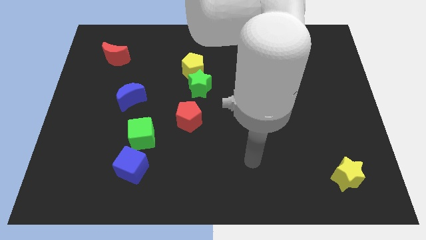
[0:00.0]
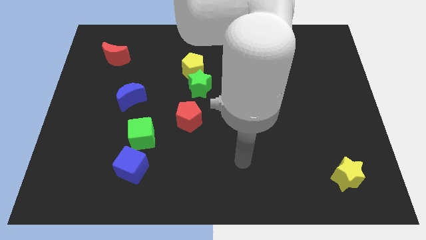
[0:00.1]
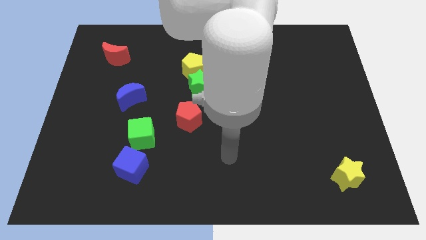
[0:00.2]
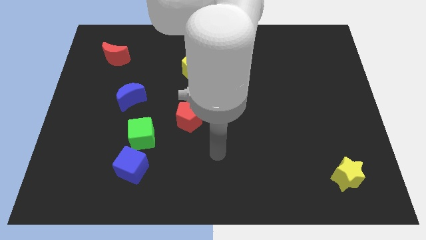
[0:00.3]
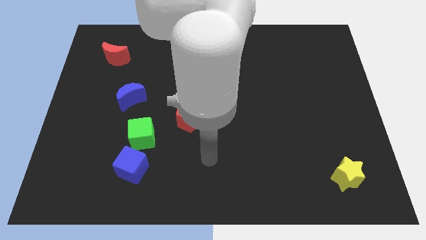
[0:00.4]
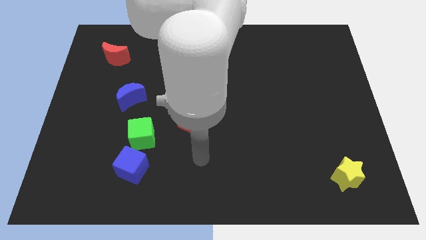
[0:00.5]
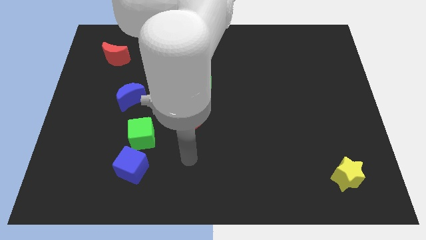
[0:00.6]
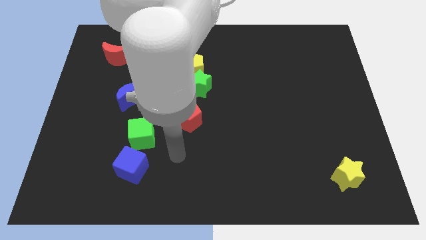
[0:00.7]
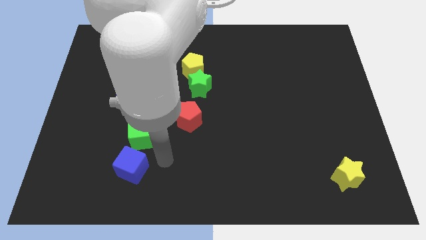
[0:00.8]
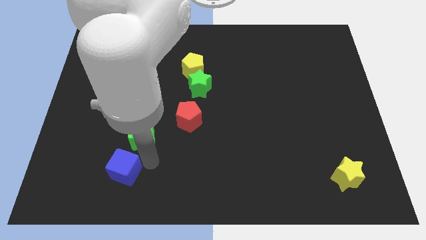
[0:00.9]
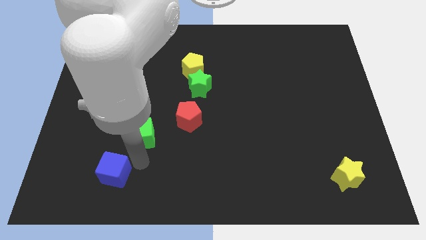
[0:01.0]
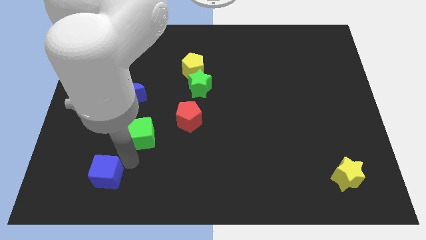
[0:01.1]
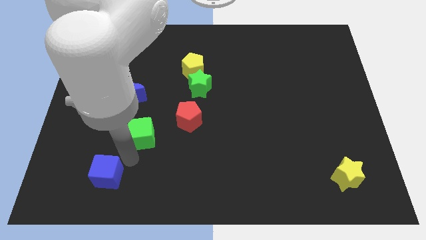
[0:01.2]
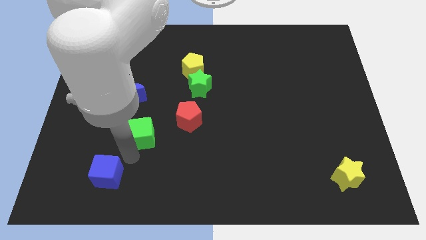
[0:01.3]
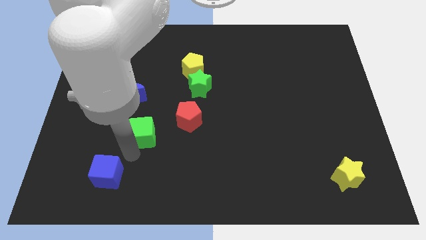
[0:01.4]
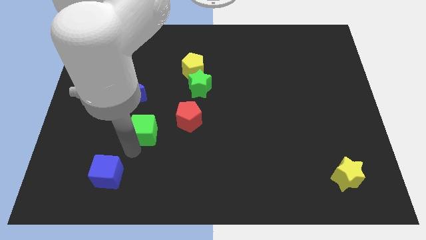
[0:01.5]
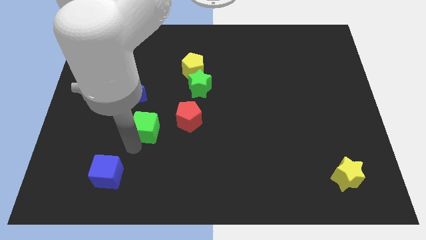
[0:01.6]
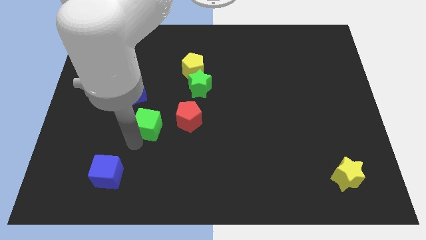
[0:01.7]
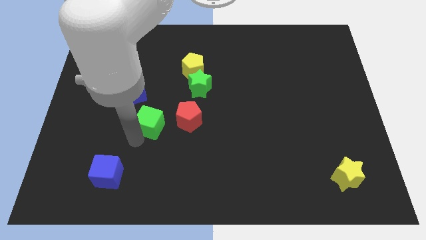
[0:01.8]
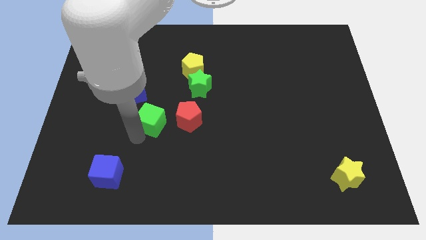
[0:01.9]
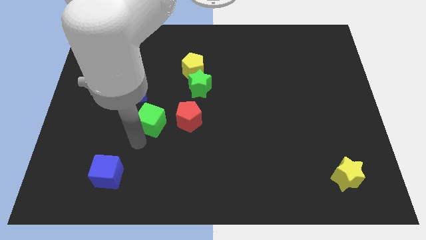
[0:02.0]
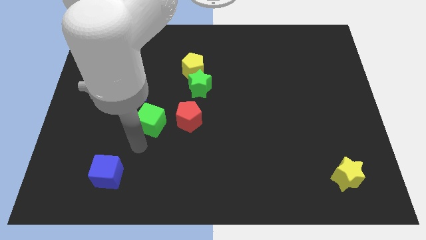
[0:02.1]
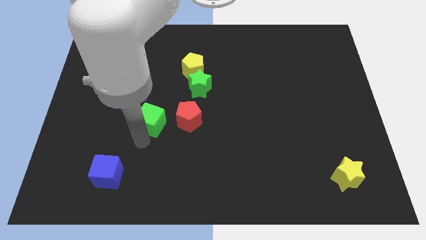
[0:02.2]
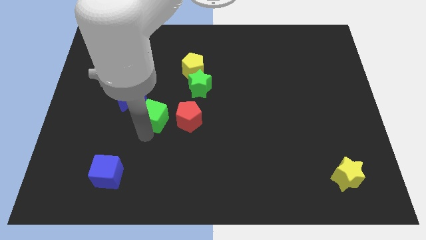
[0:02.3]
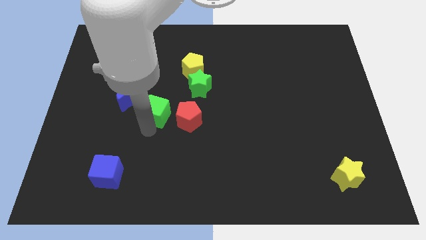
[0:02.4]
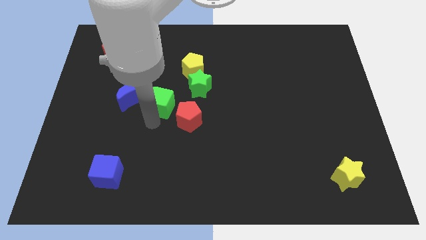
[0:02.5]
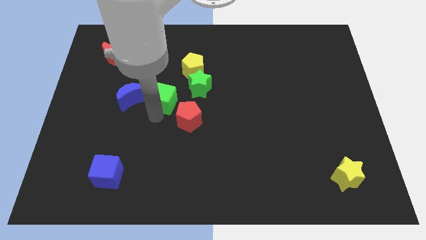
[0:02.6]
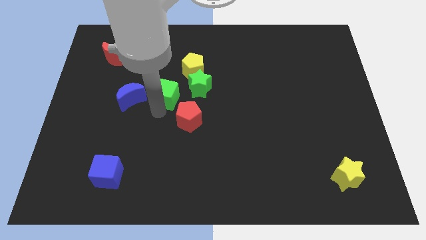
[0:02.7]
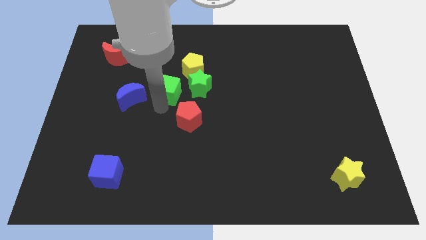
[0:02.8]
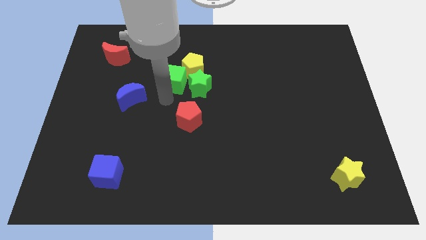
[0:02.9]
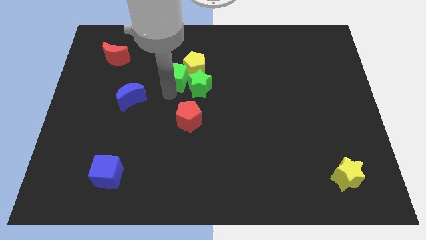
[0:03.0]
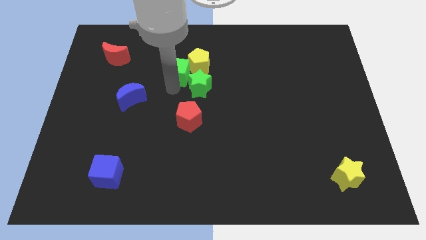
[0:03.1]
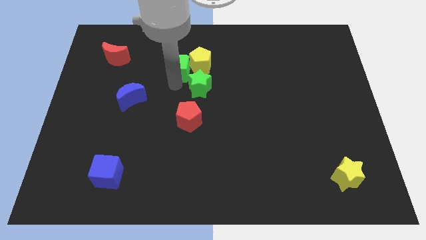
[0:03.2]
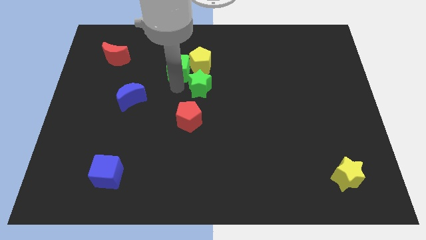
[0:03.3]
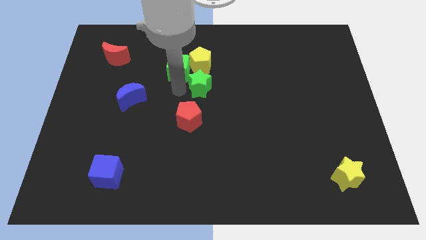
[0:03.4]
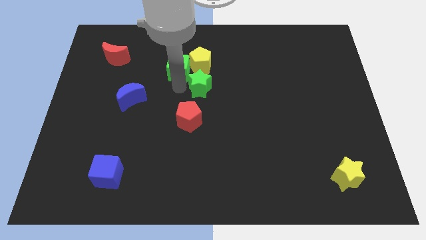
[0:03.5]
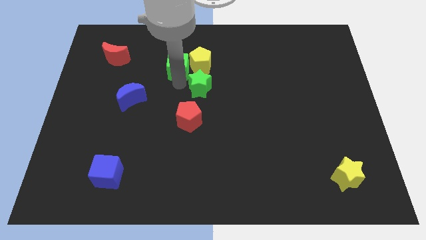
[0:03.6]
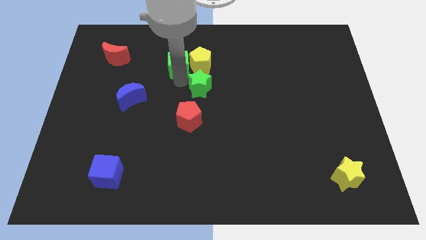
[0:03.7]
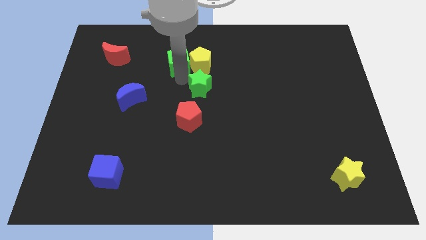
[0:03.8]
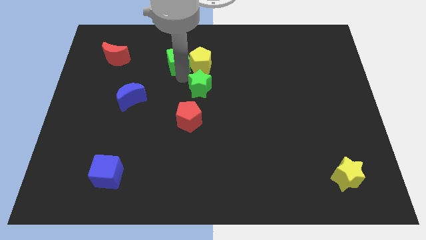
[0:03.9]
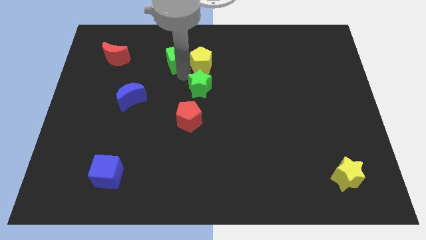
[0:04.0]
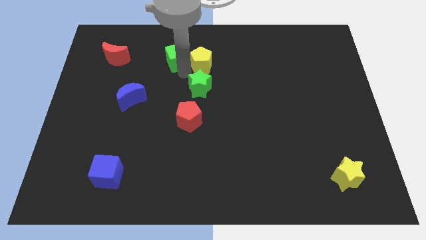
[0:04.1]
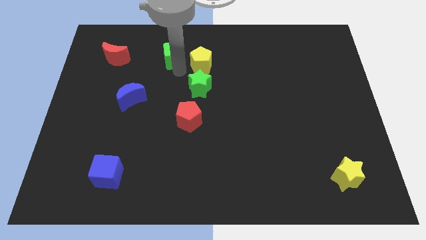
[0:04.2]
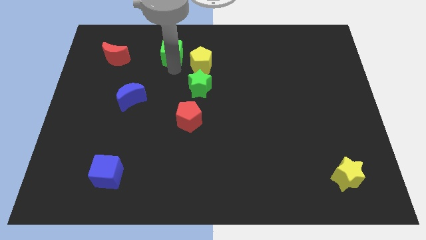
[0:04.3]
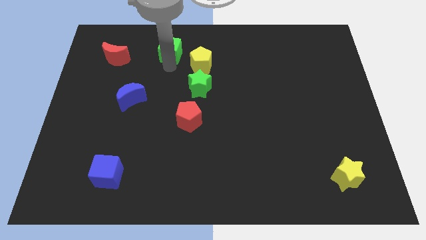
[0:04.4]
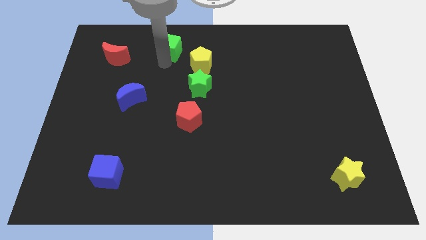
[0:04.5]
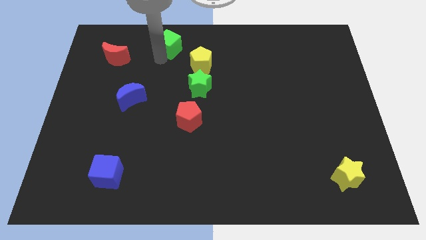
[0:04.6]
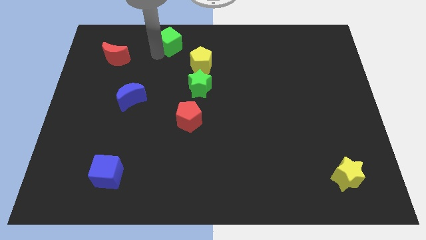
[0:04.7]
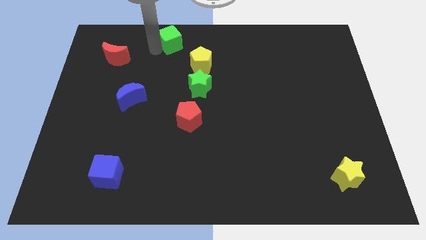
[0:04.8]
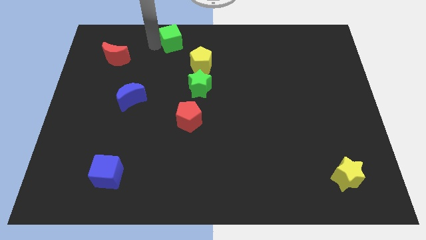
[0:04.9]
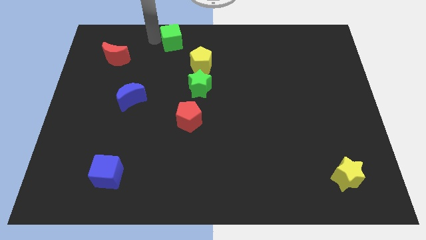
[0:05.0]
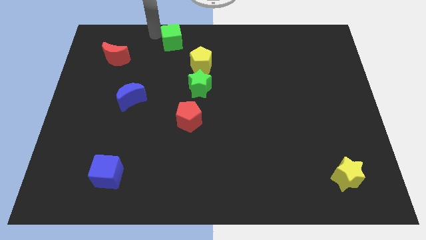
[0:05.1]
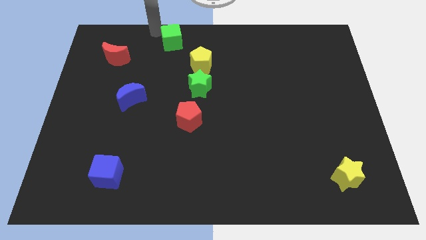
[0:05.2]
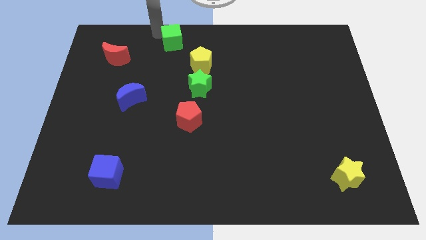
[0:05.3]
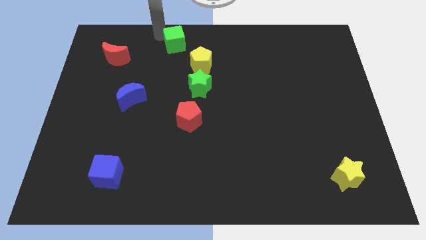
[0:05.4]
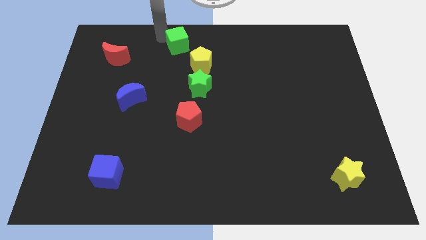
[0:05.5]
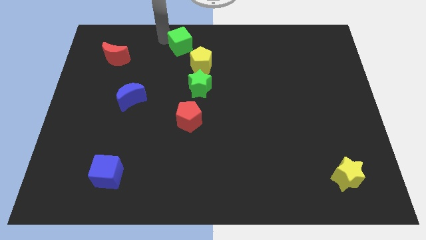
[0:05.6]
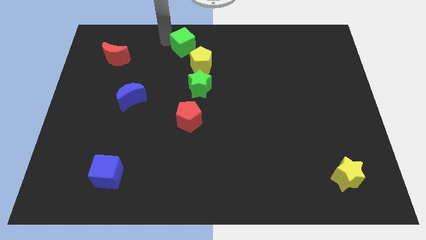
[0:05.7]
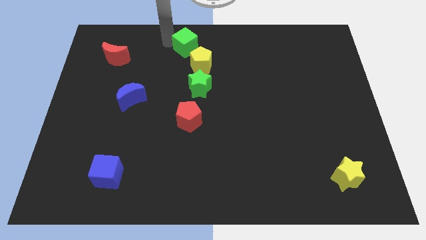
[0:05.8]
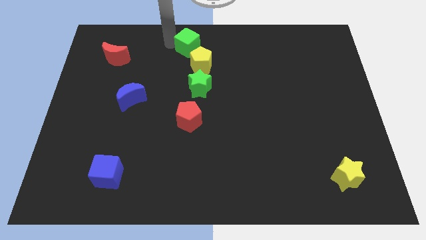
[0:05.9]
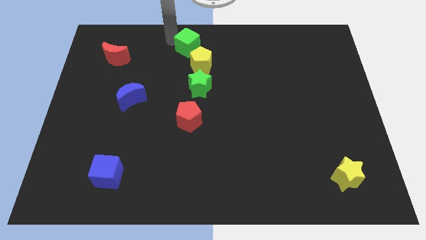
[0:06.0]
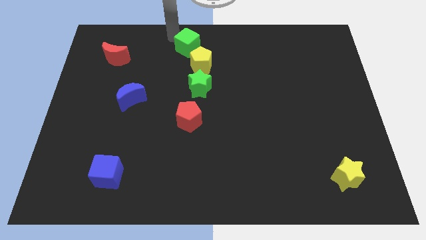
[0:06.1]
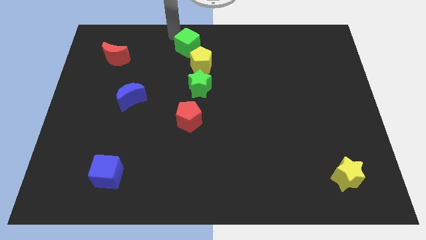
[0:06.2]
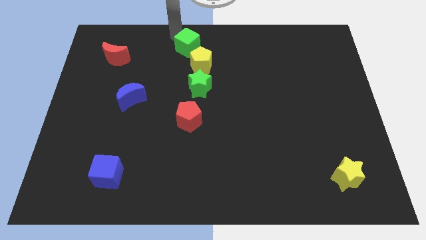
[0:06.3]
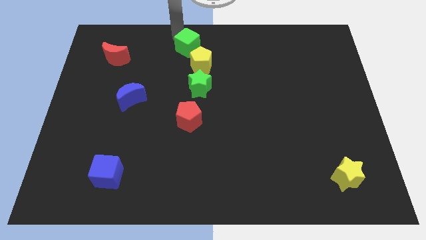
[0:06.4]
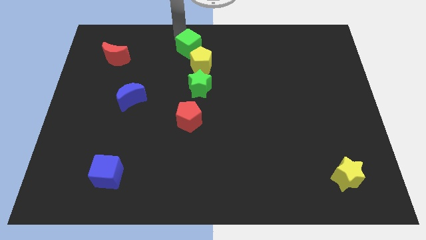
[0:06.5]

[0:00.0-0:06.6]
push the green cube above the green star
